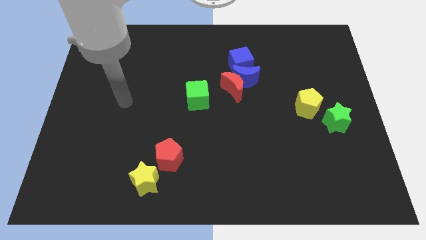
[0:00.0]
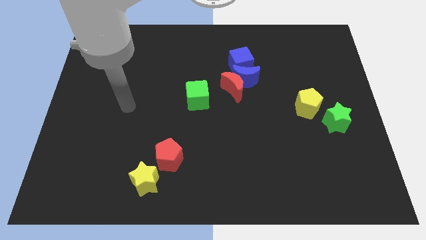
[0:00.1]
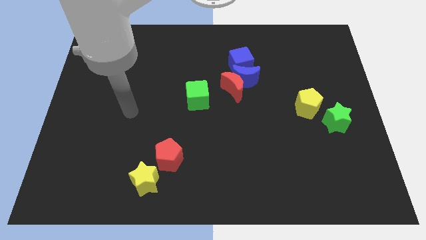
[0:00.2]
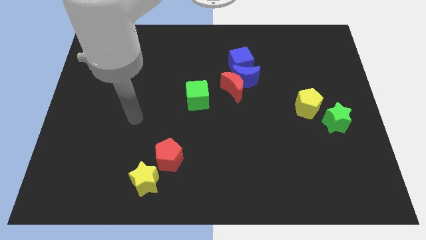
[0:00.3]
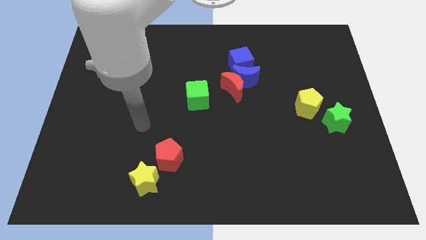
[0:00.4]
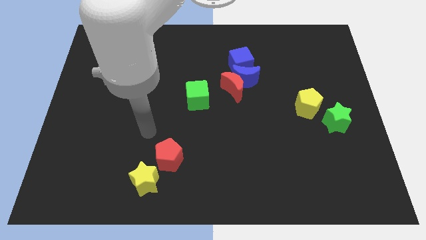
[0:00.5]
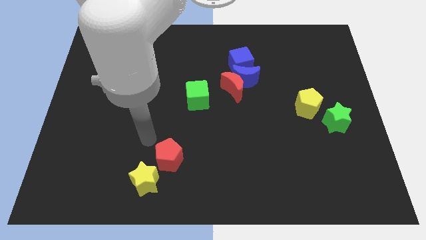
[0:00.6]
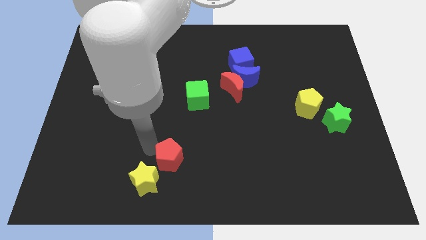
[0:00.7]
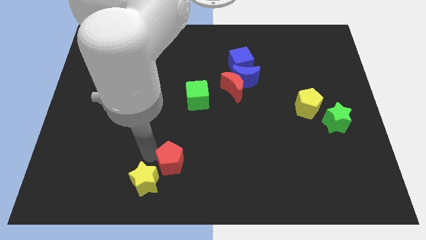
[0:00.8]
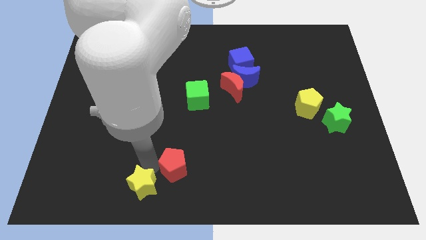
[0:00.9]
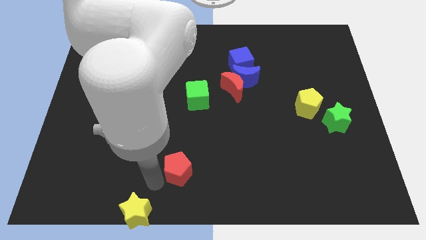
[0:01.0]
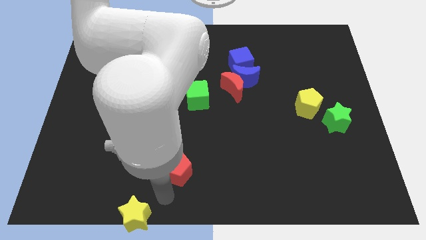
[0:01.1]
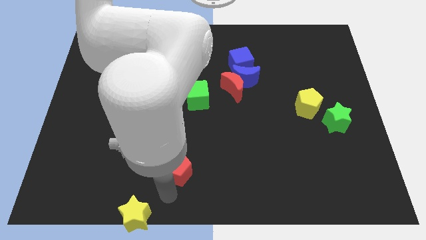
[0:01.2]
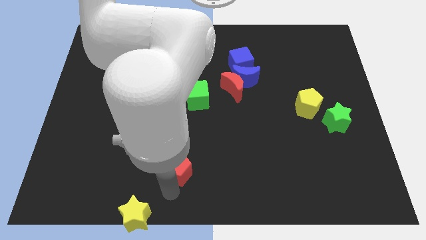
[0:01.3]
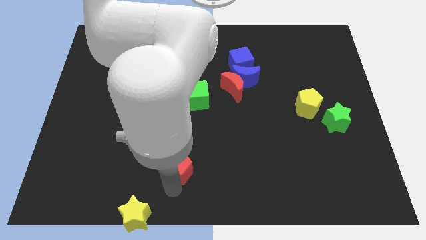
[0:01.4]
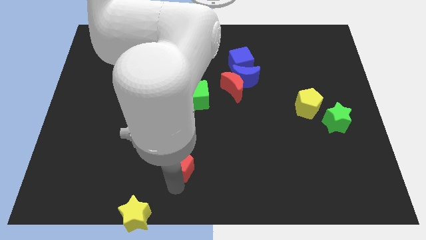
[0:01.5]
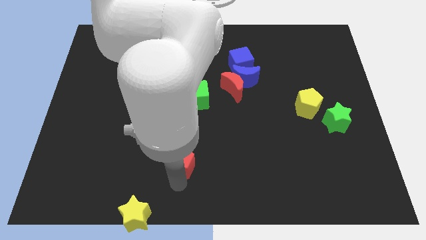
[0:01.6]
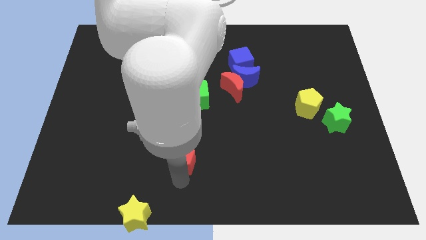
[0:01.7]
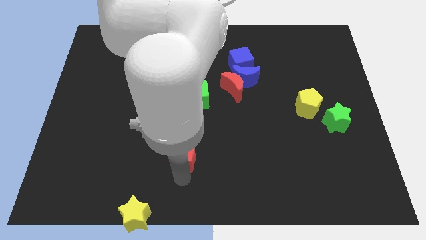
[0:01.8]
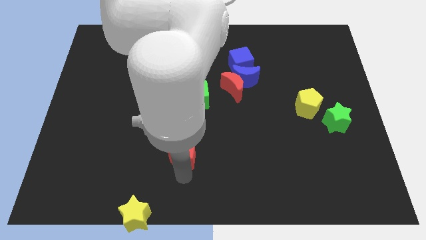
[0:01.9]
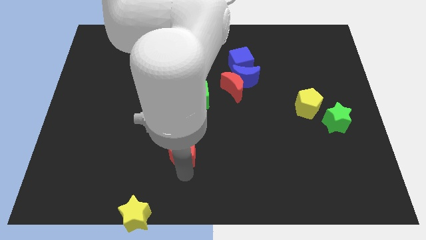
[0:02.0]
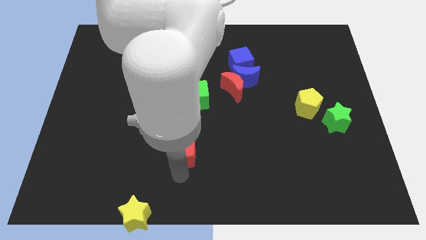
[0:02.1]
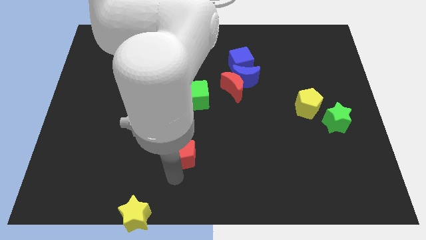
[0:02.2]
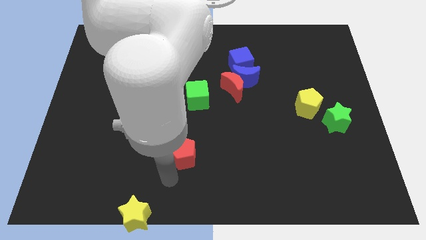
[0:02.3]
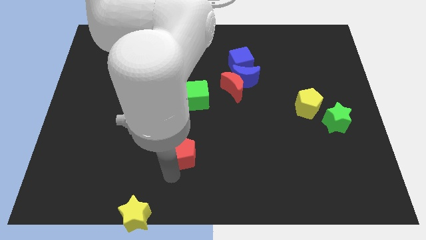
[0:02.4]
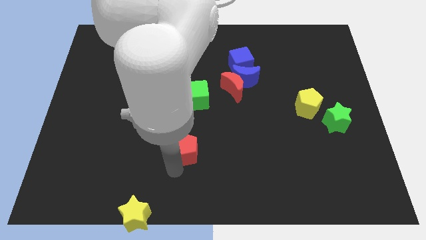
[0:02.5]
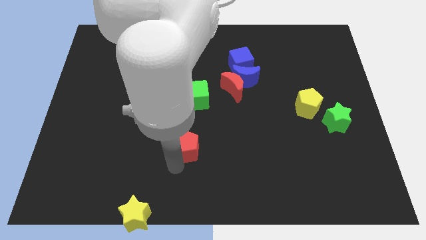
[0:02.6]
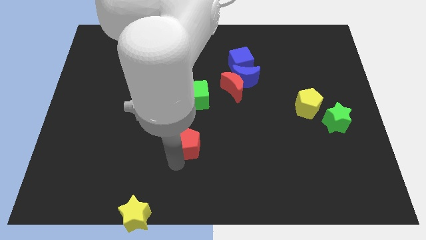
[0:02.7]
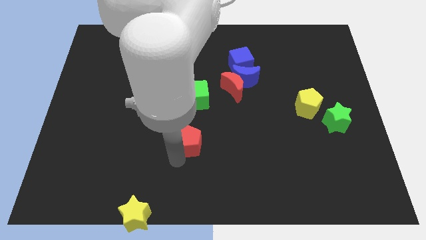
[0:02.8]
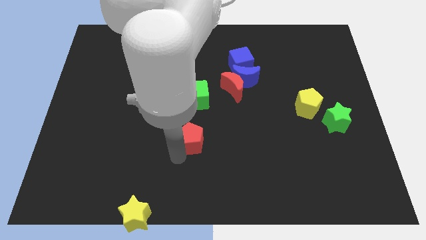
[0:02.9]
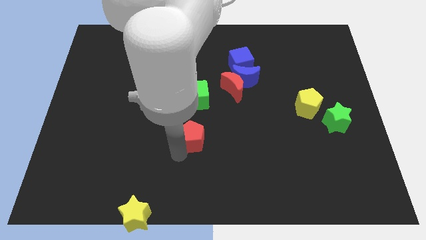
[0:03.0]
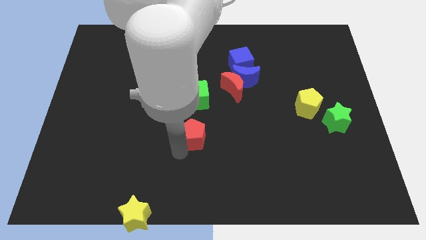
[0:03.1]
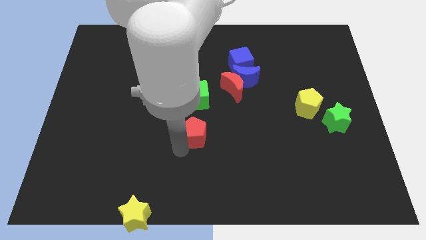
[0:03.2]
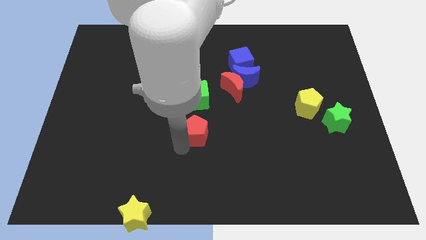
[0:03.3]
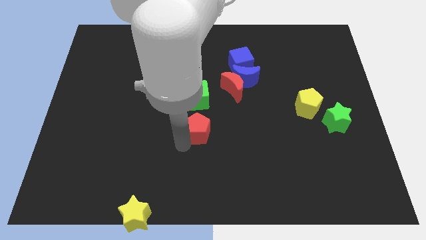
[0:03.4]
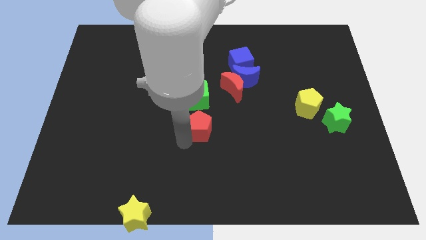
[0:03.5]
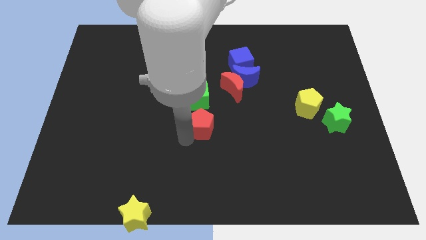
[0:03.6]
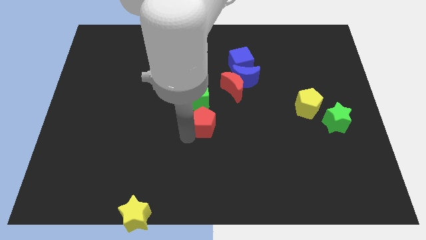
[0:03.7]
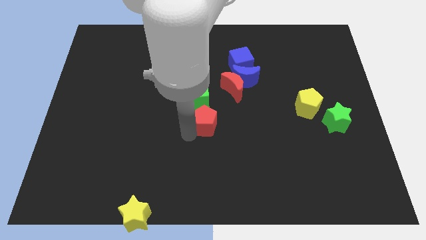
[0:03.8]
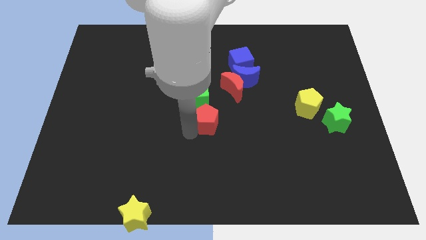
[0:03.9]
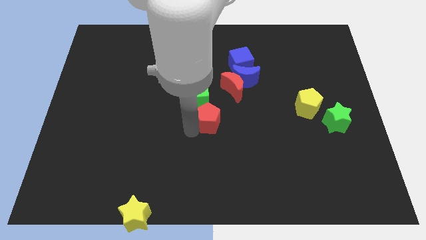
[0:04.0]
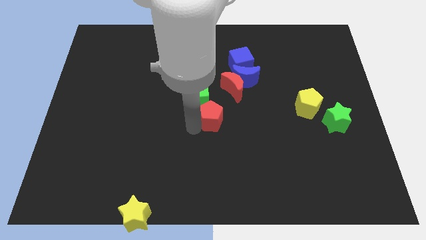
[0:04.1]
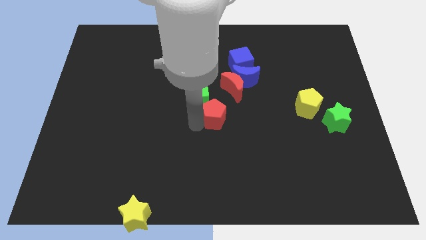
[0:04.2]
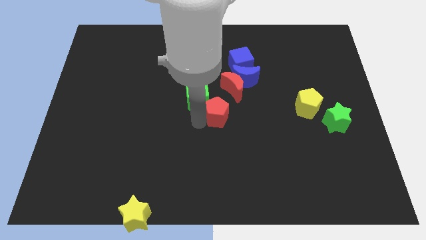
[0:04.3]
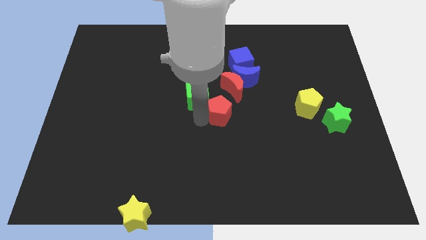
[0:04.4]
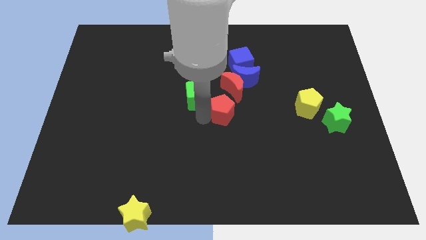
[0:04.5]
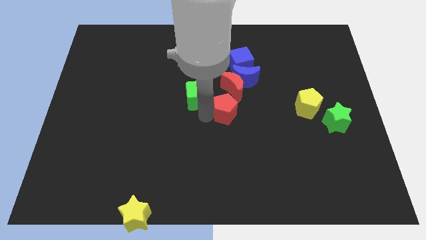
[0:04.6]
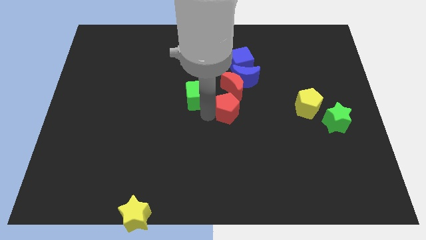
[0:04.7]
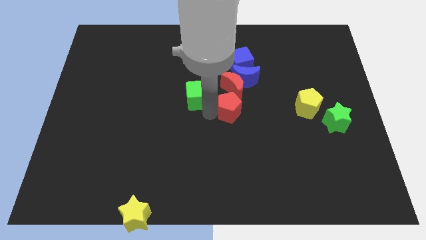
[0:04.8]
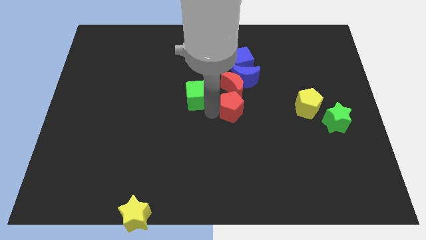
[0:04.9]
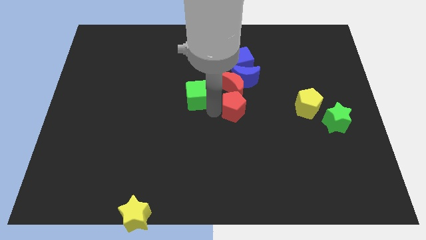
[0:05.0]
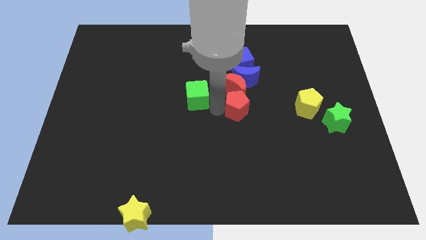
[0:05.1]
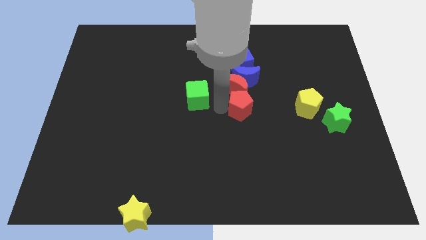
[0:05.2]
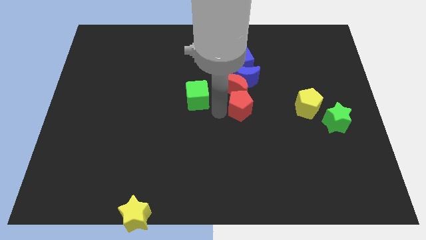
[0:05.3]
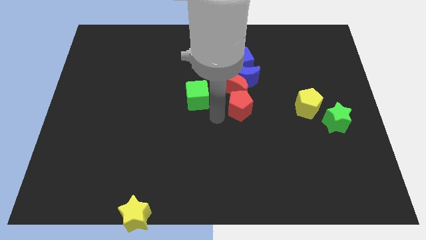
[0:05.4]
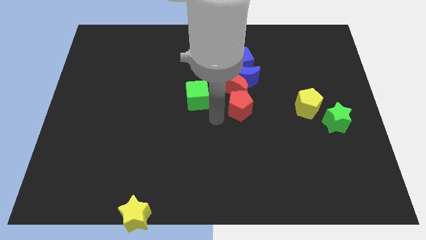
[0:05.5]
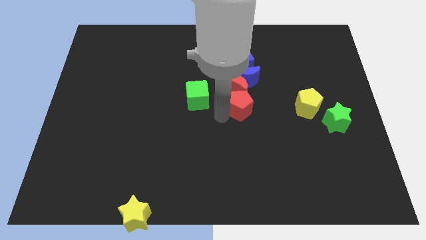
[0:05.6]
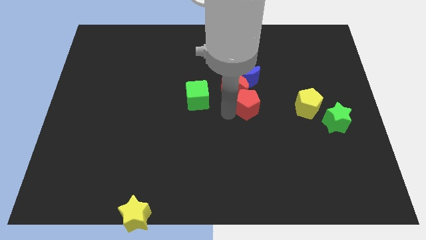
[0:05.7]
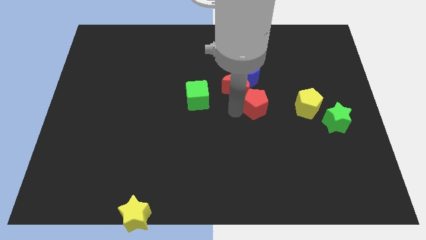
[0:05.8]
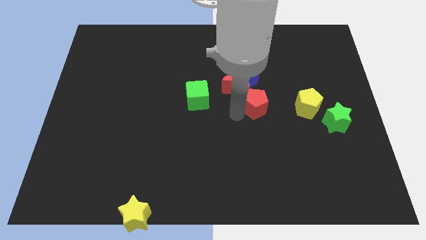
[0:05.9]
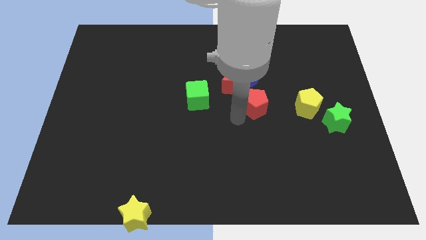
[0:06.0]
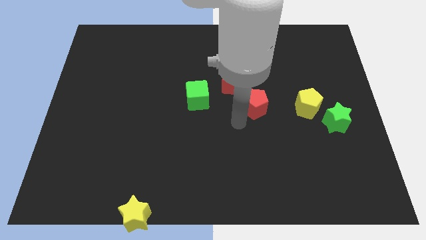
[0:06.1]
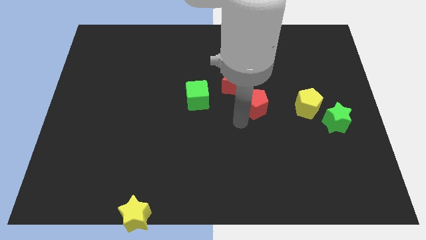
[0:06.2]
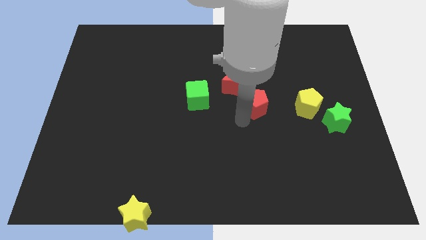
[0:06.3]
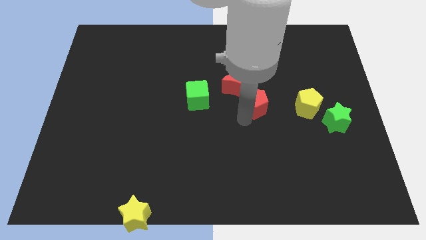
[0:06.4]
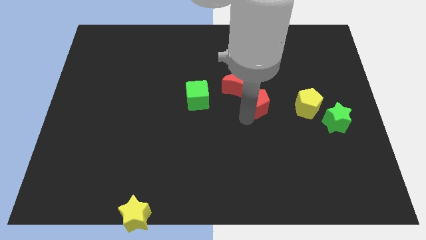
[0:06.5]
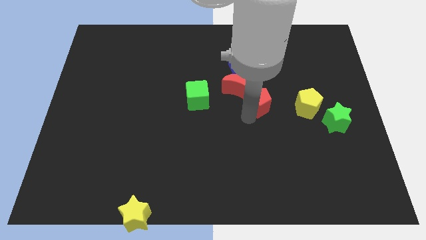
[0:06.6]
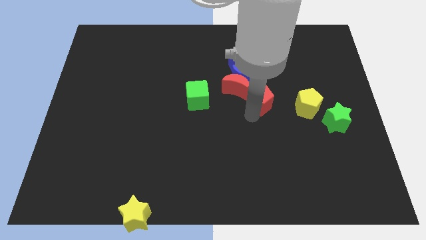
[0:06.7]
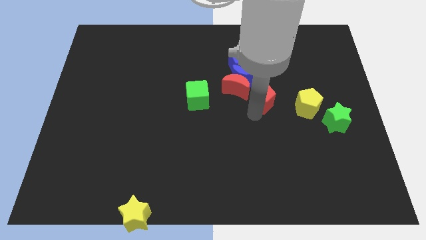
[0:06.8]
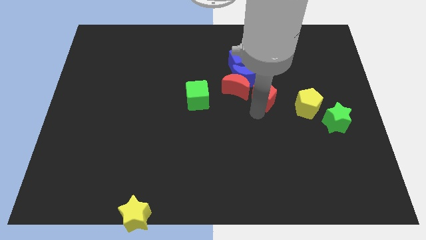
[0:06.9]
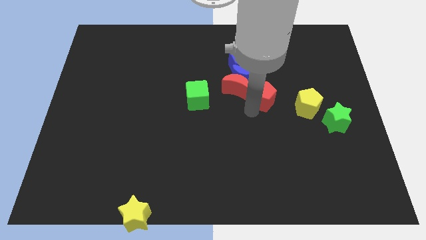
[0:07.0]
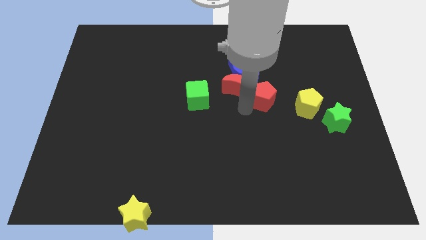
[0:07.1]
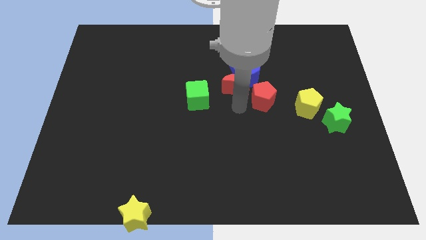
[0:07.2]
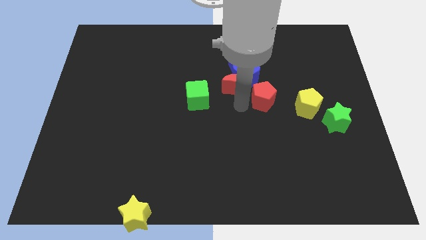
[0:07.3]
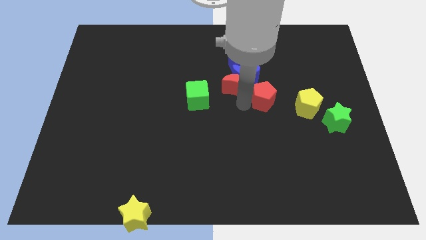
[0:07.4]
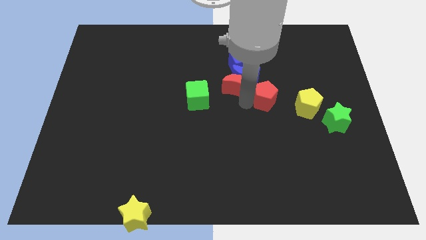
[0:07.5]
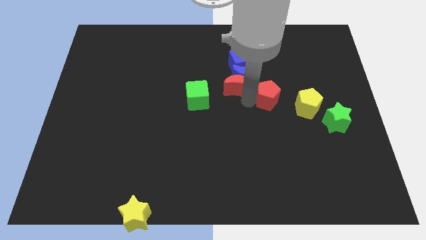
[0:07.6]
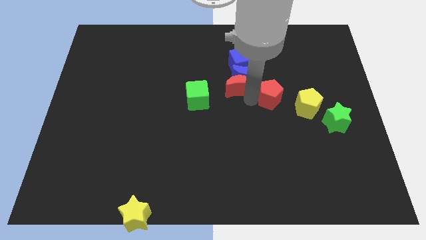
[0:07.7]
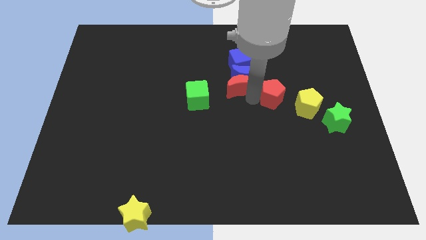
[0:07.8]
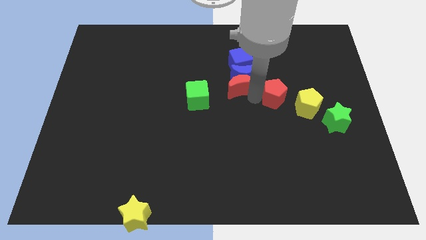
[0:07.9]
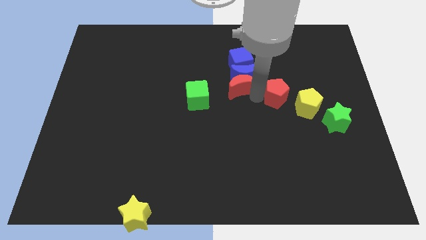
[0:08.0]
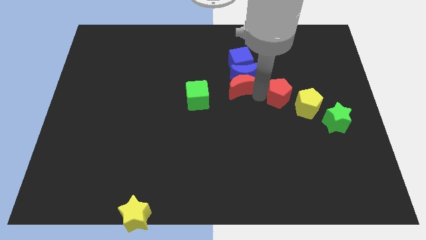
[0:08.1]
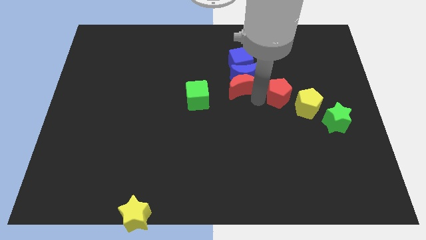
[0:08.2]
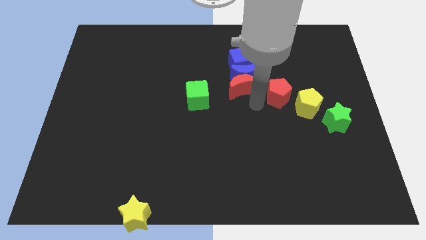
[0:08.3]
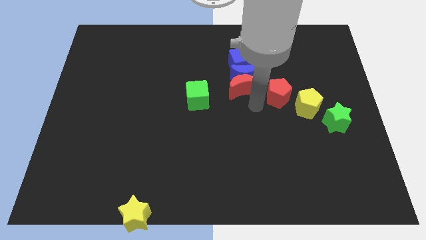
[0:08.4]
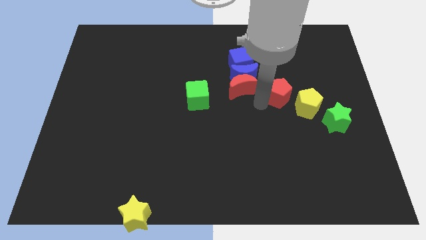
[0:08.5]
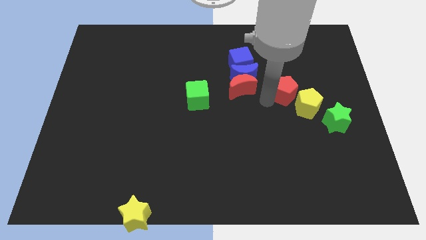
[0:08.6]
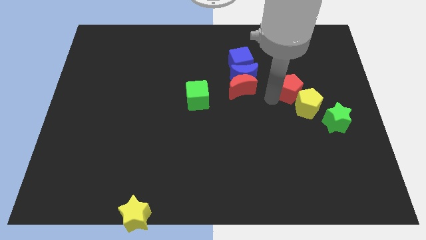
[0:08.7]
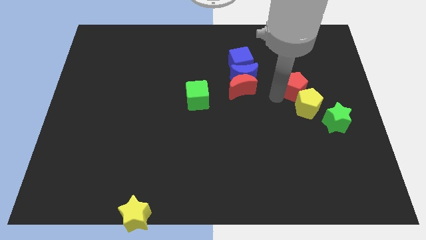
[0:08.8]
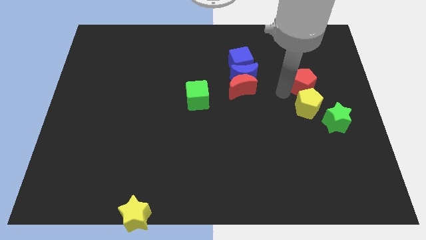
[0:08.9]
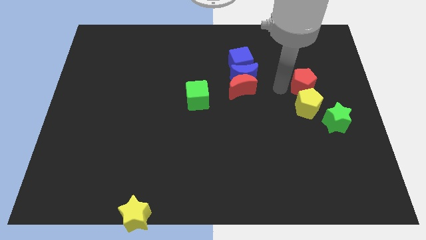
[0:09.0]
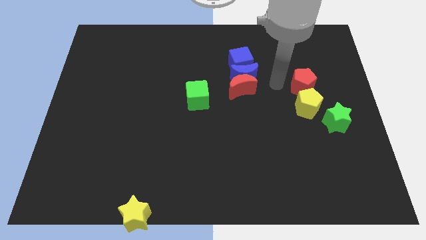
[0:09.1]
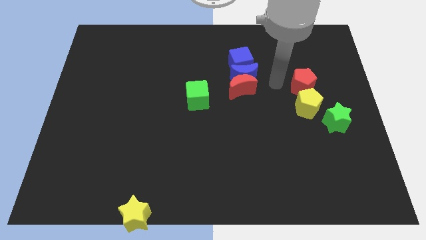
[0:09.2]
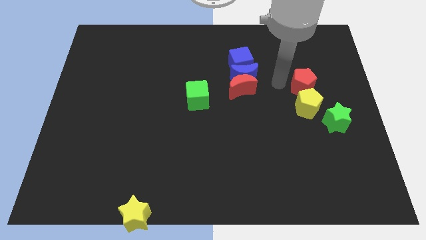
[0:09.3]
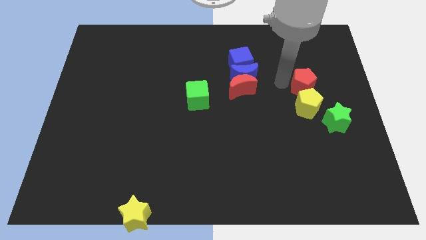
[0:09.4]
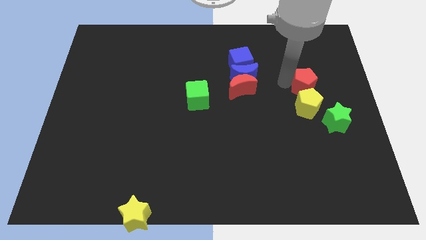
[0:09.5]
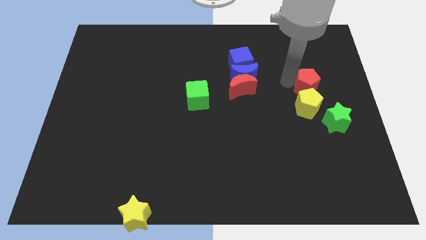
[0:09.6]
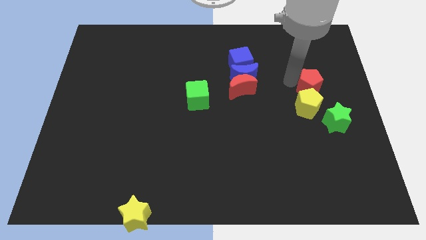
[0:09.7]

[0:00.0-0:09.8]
slide the red pentagon to the top of the green star
